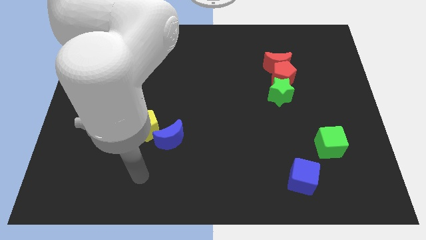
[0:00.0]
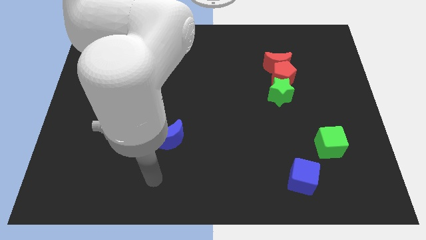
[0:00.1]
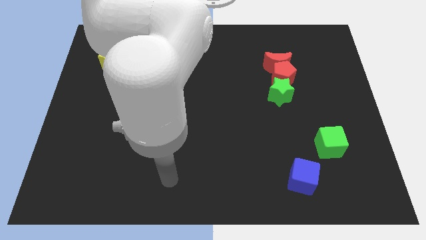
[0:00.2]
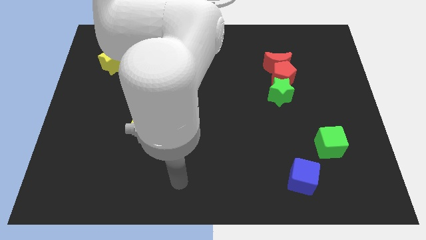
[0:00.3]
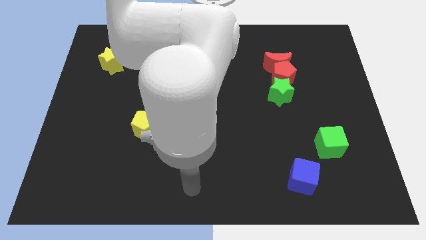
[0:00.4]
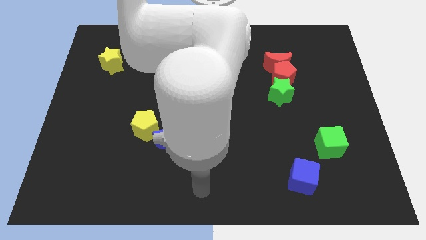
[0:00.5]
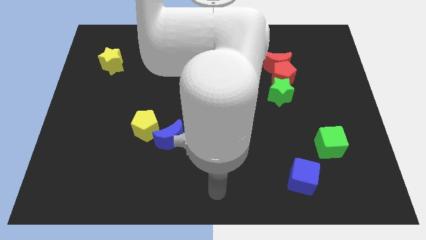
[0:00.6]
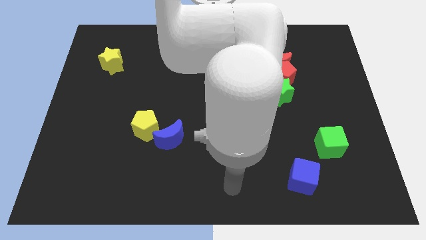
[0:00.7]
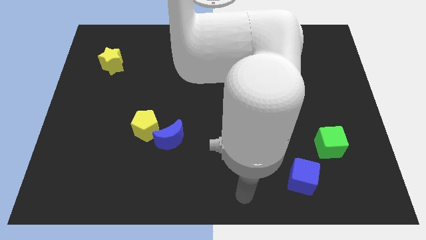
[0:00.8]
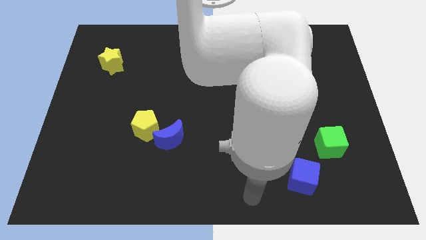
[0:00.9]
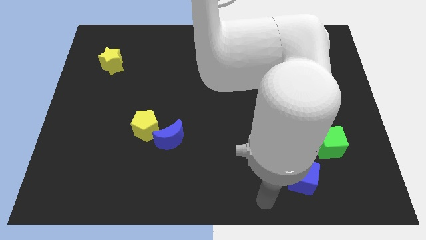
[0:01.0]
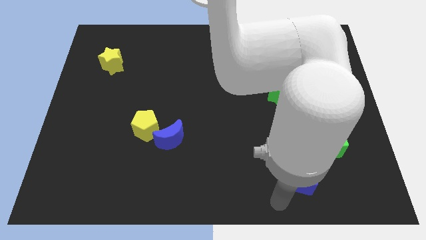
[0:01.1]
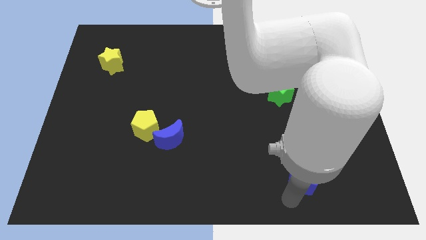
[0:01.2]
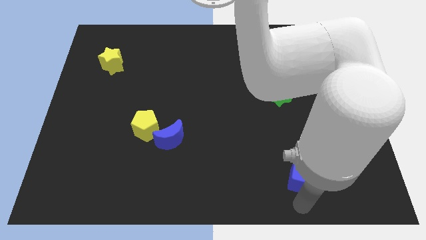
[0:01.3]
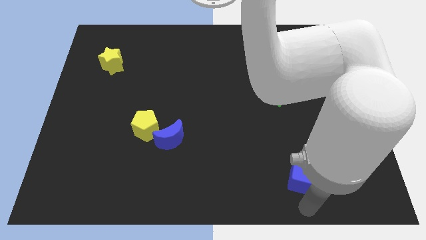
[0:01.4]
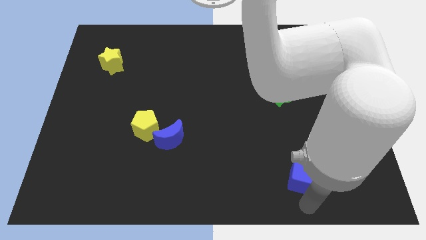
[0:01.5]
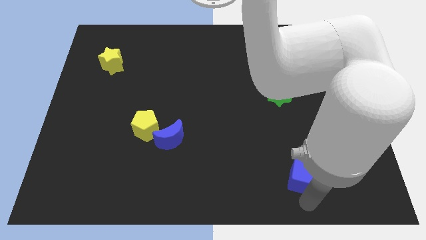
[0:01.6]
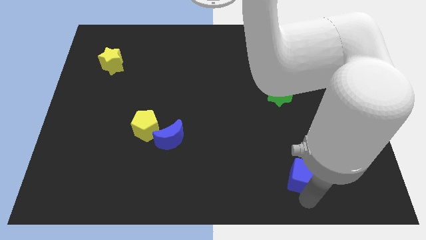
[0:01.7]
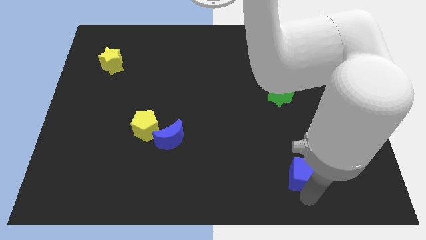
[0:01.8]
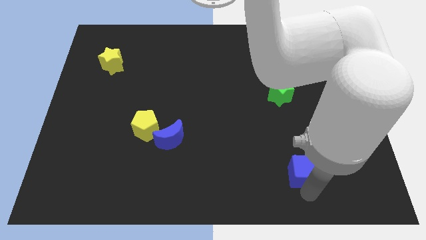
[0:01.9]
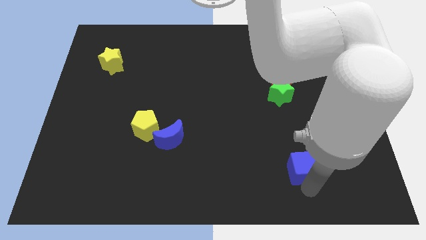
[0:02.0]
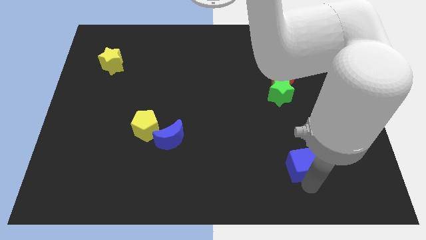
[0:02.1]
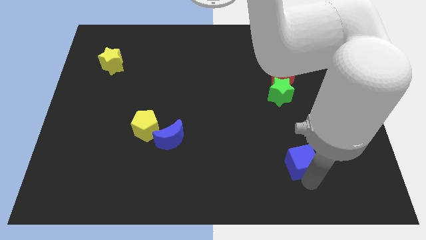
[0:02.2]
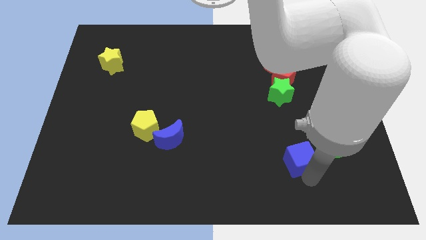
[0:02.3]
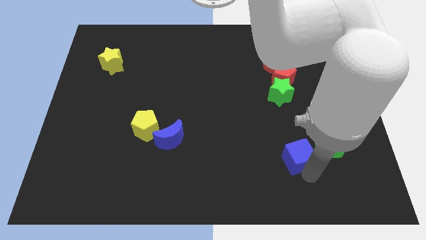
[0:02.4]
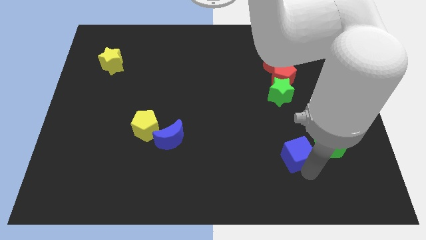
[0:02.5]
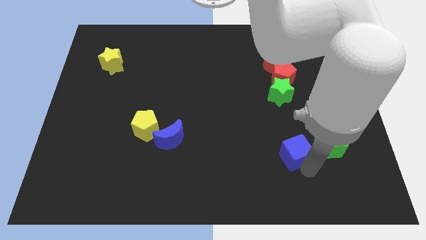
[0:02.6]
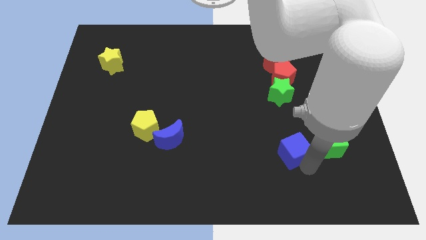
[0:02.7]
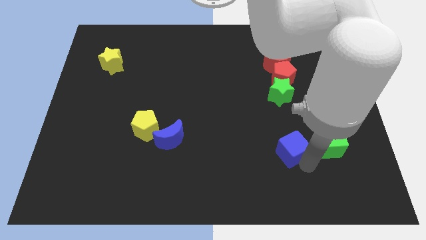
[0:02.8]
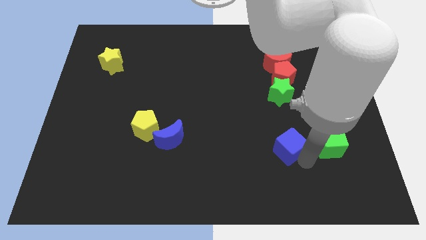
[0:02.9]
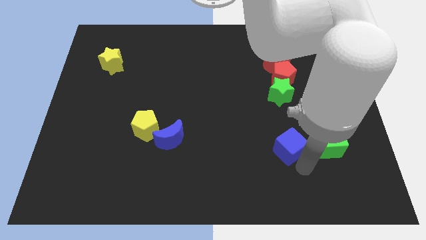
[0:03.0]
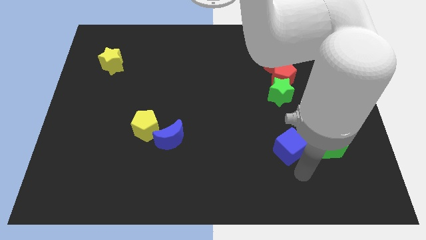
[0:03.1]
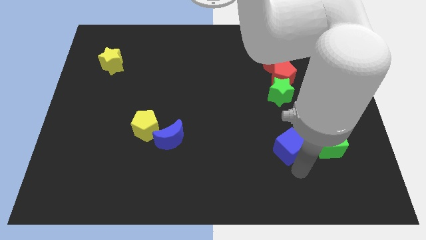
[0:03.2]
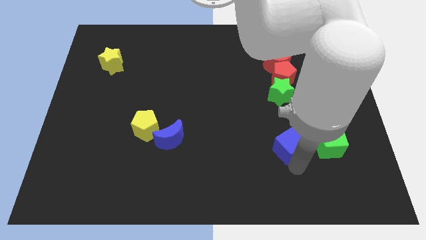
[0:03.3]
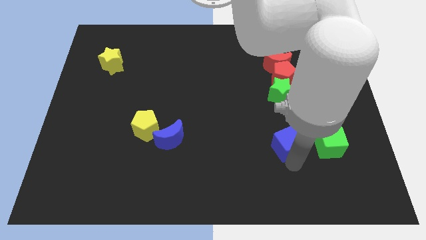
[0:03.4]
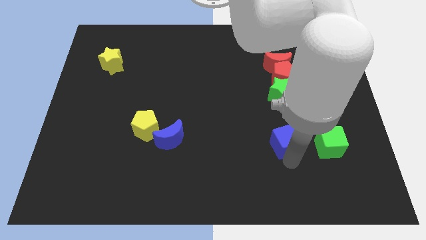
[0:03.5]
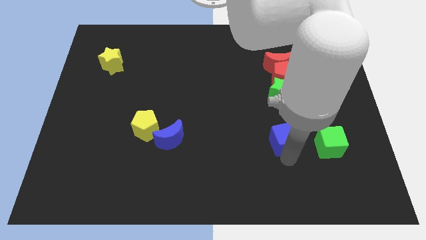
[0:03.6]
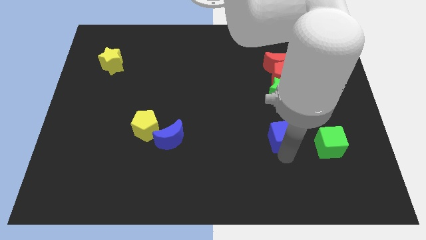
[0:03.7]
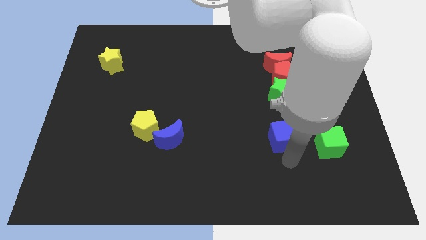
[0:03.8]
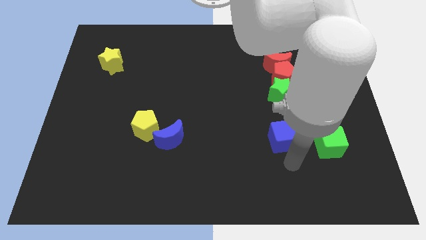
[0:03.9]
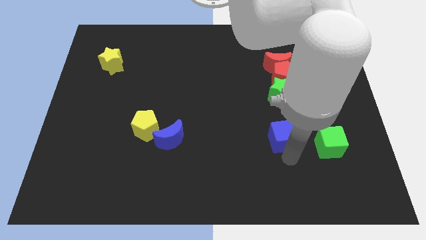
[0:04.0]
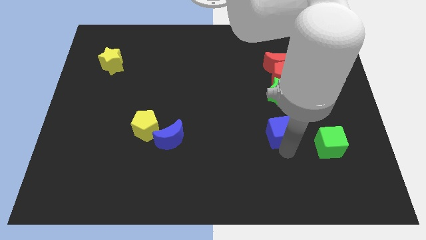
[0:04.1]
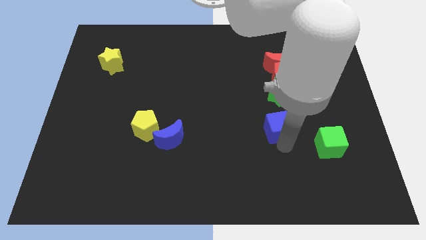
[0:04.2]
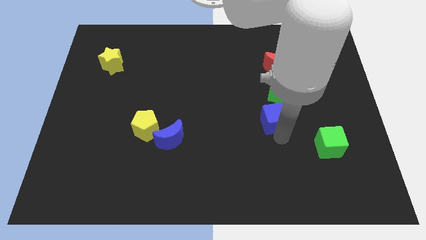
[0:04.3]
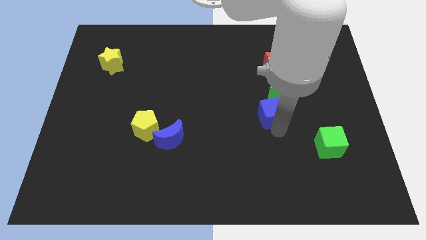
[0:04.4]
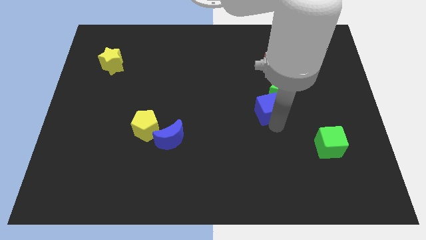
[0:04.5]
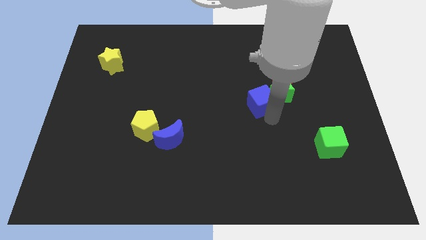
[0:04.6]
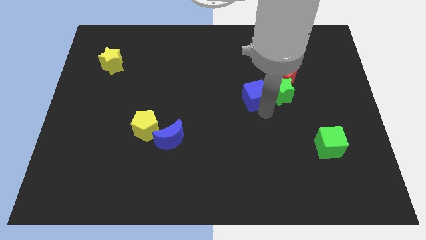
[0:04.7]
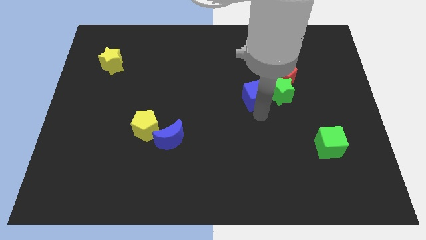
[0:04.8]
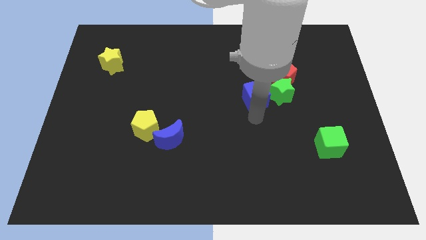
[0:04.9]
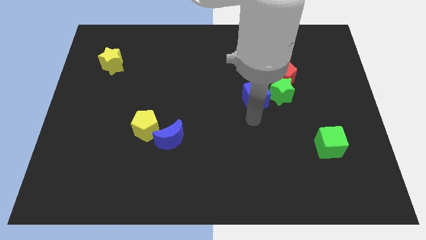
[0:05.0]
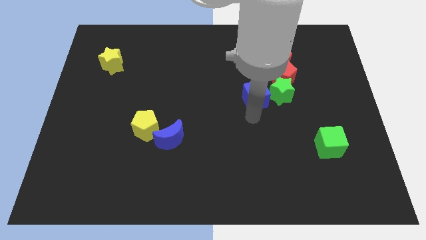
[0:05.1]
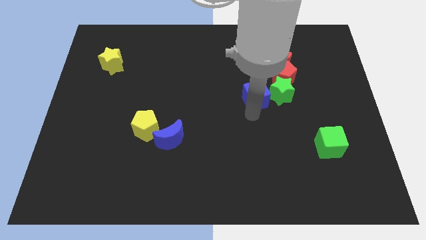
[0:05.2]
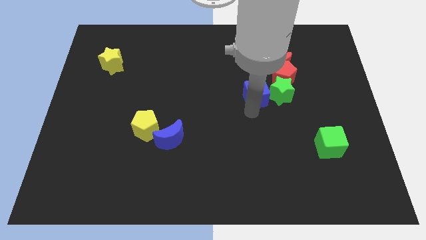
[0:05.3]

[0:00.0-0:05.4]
push the blue cube diagonally up and to the left of the green star

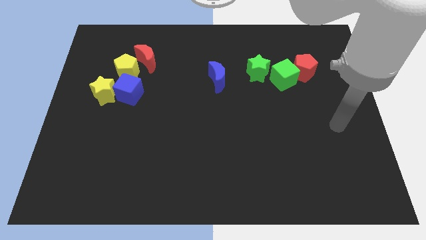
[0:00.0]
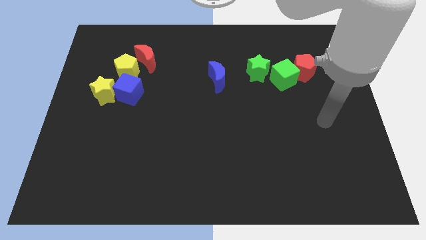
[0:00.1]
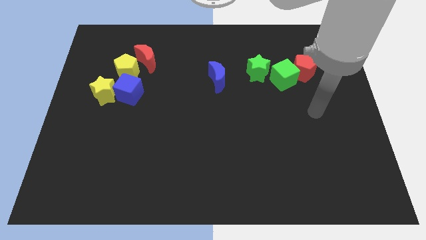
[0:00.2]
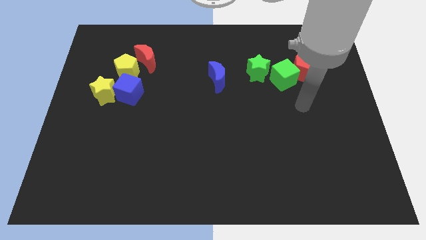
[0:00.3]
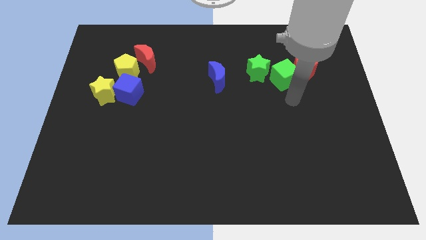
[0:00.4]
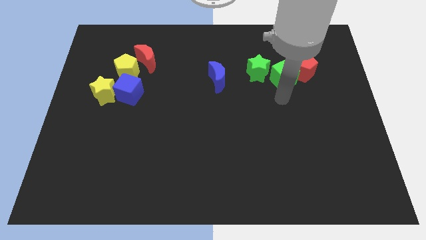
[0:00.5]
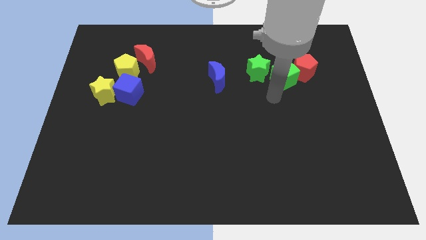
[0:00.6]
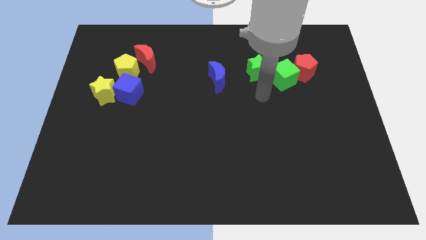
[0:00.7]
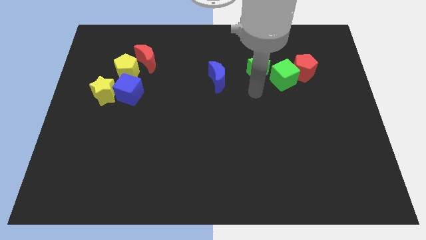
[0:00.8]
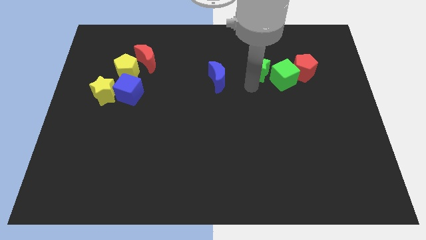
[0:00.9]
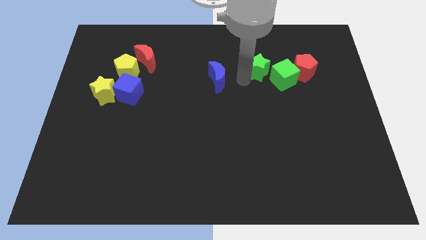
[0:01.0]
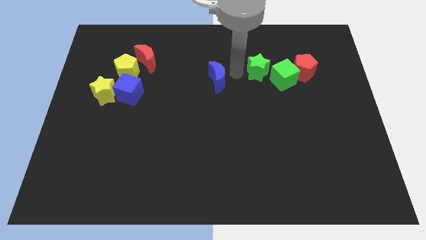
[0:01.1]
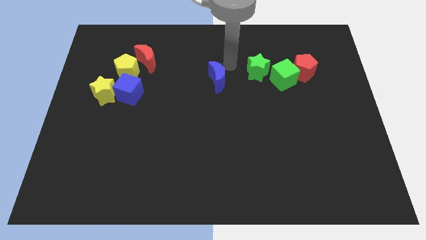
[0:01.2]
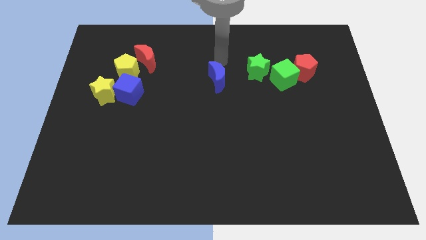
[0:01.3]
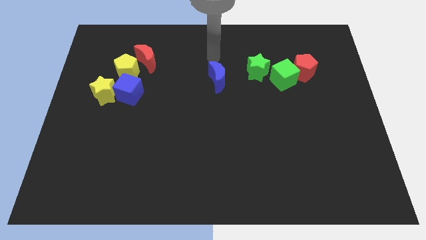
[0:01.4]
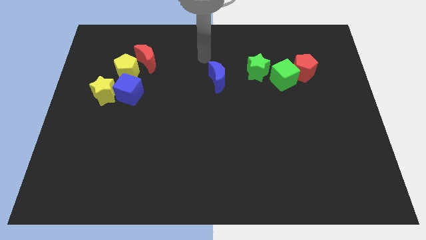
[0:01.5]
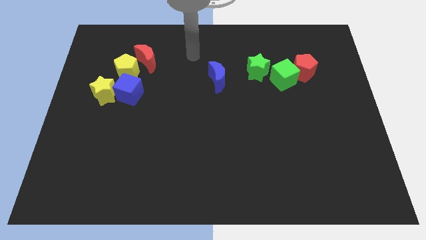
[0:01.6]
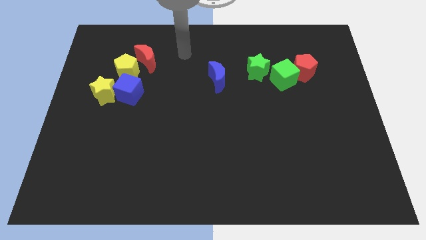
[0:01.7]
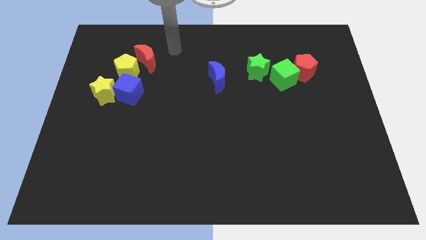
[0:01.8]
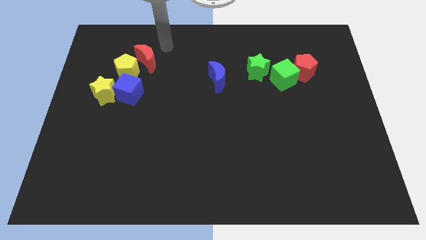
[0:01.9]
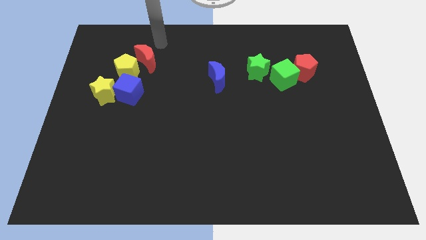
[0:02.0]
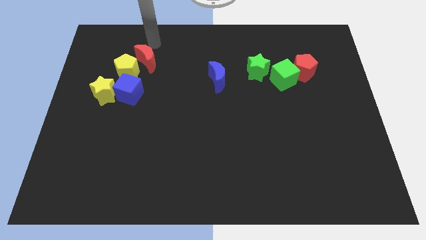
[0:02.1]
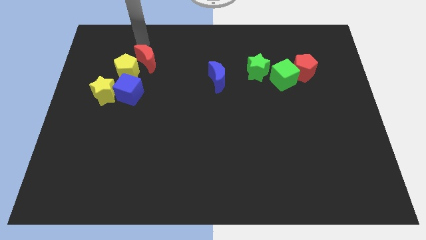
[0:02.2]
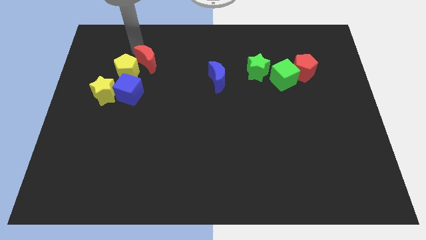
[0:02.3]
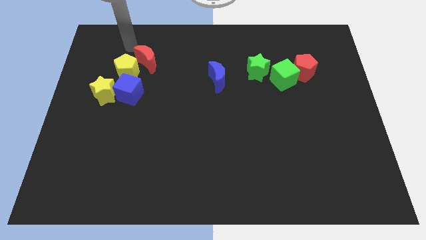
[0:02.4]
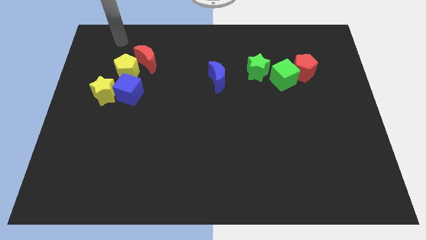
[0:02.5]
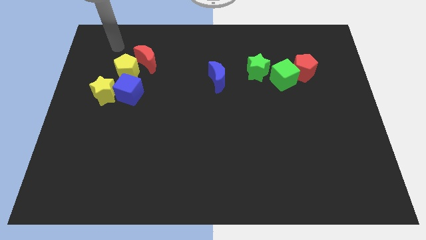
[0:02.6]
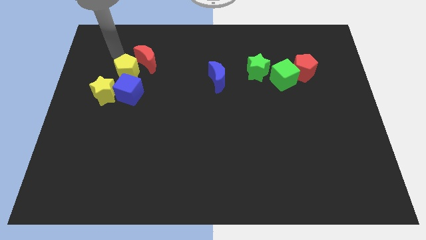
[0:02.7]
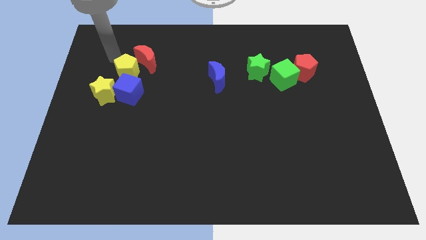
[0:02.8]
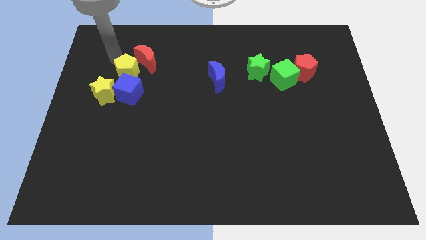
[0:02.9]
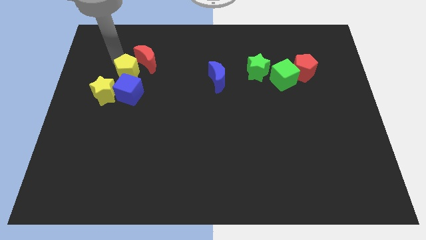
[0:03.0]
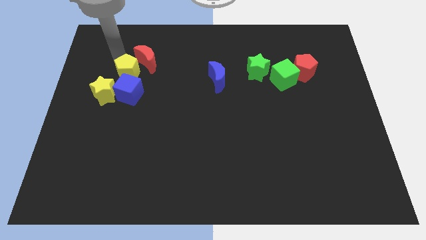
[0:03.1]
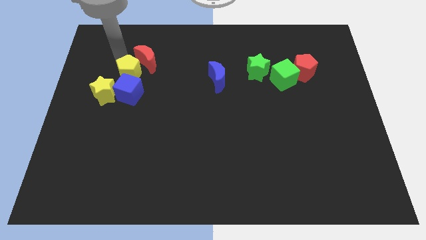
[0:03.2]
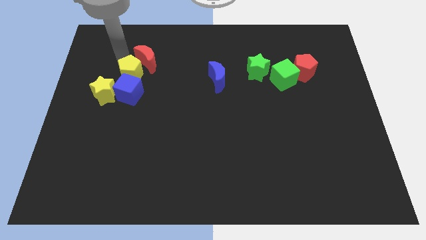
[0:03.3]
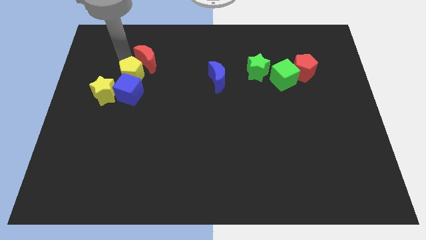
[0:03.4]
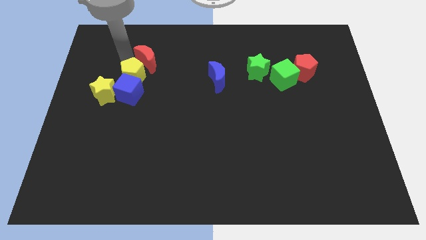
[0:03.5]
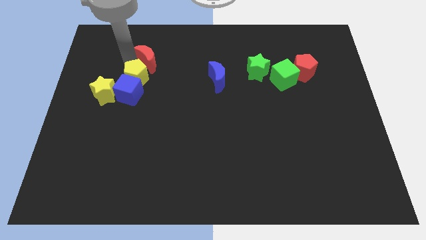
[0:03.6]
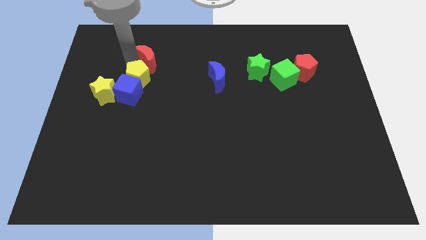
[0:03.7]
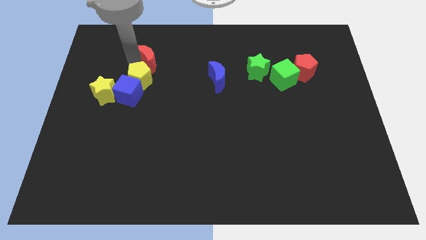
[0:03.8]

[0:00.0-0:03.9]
push the yellow pentagon to the right of the yellow star
